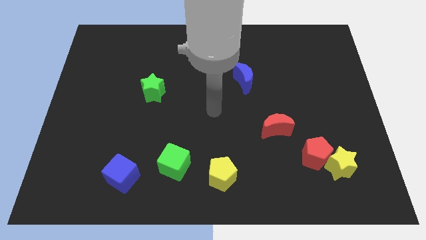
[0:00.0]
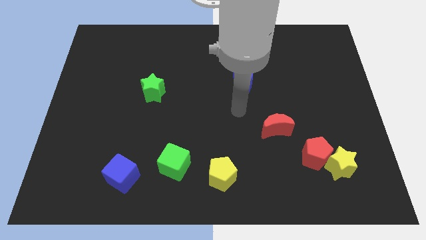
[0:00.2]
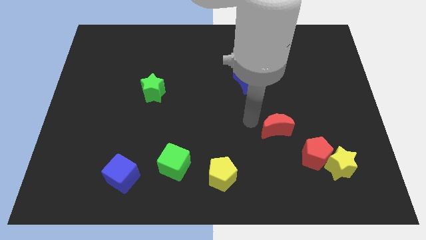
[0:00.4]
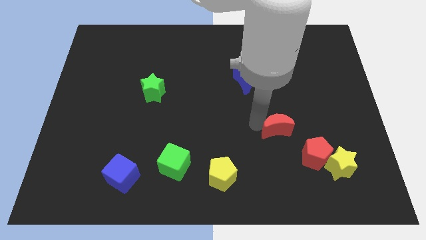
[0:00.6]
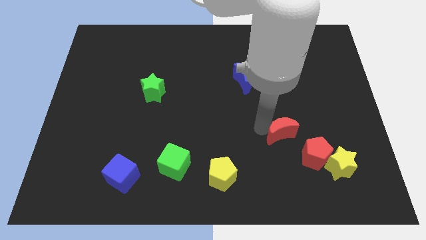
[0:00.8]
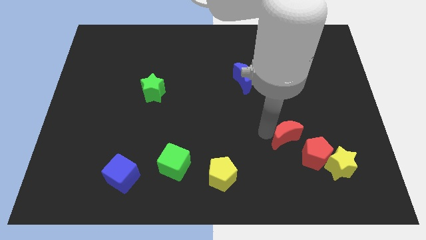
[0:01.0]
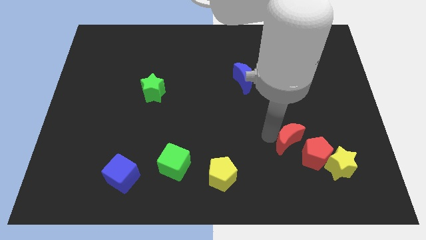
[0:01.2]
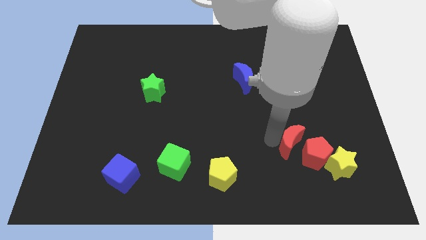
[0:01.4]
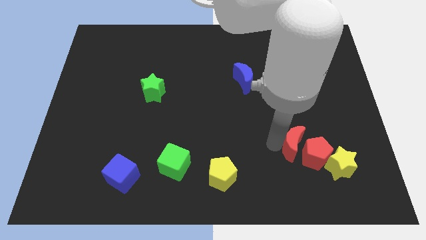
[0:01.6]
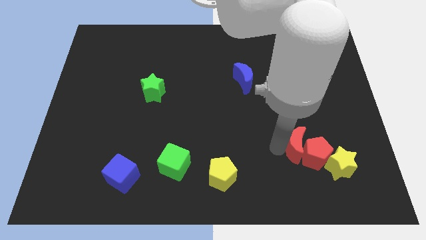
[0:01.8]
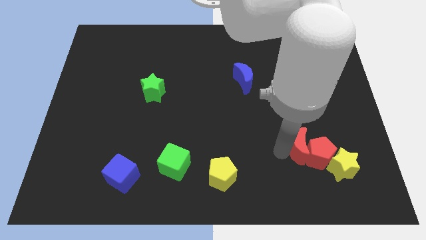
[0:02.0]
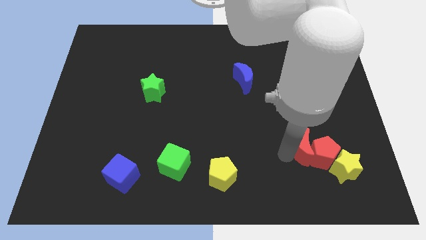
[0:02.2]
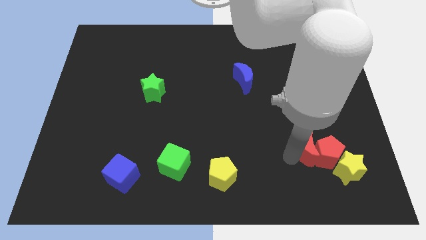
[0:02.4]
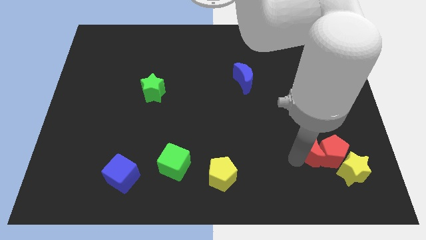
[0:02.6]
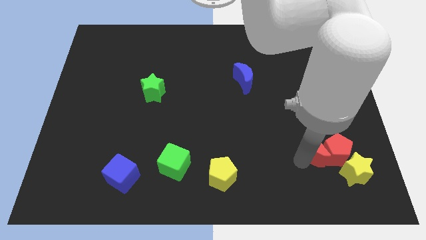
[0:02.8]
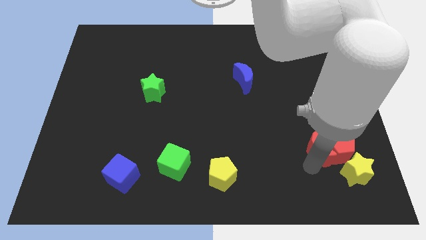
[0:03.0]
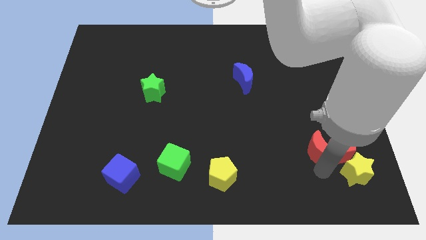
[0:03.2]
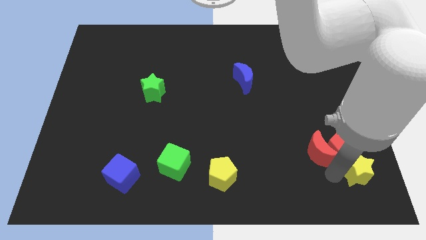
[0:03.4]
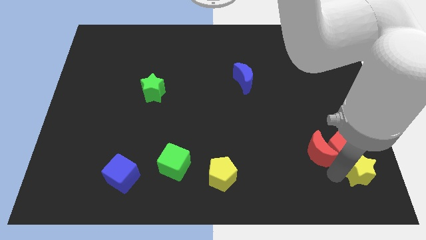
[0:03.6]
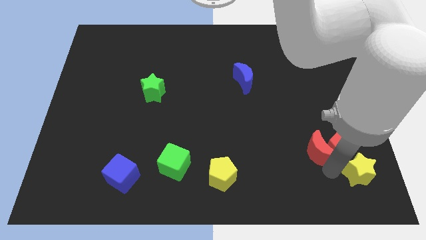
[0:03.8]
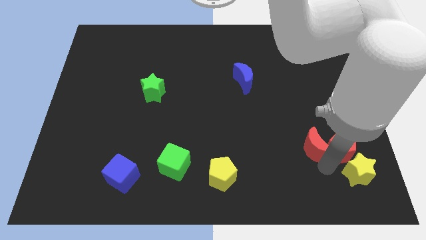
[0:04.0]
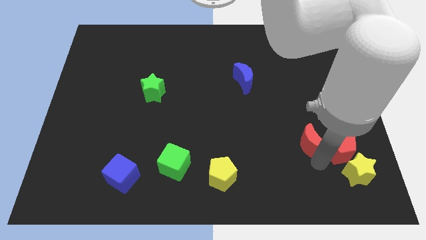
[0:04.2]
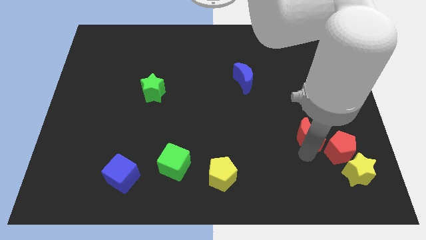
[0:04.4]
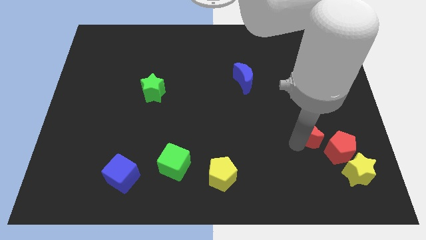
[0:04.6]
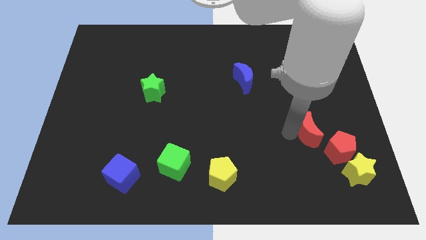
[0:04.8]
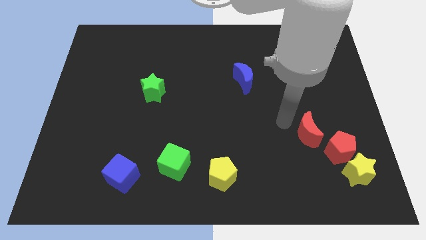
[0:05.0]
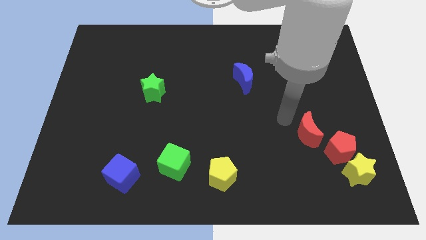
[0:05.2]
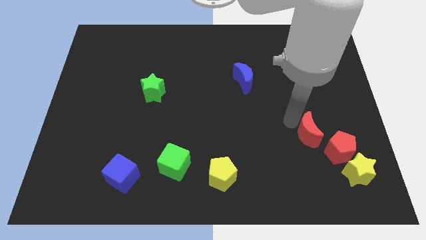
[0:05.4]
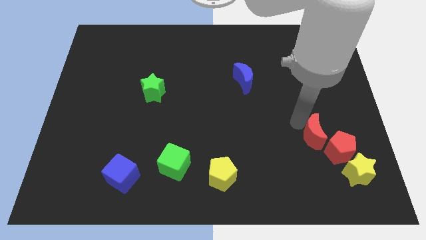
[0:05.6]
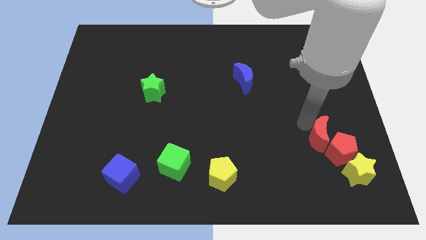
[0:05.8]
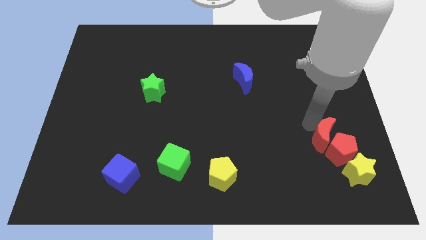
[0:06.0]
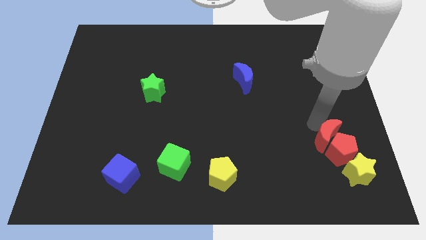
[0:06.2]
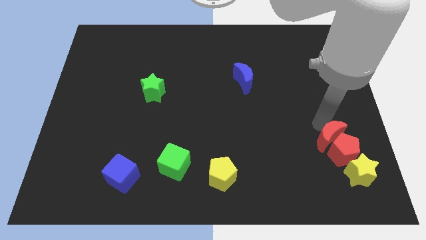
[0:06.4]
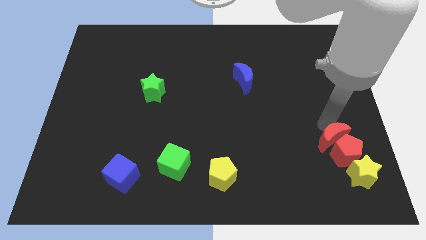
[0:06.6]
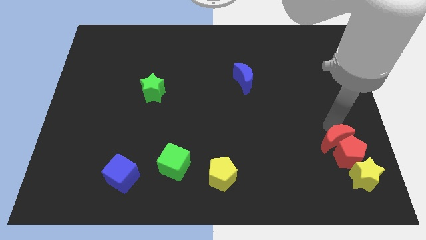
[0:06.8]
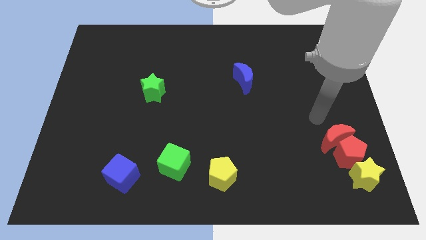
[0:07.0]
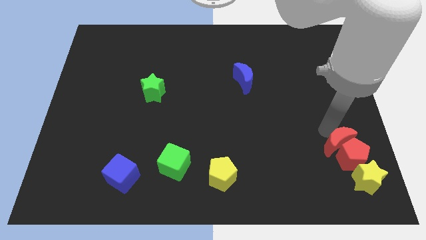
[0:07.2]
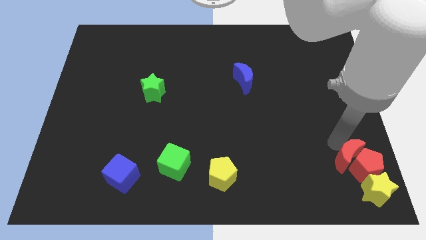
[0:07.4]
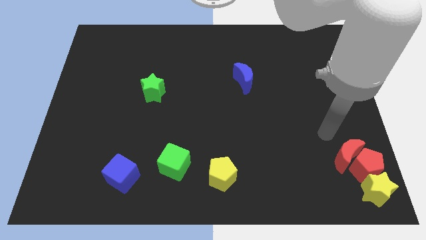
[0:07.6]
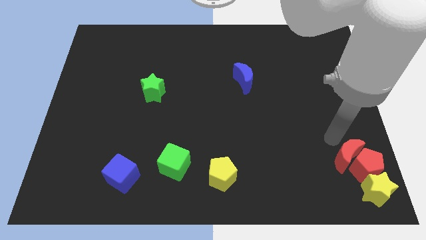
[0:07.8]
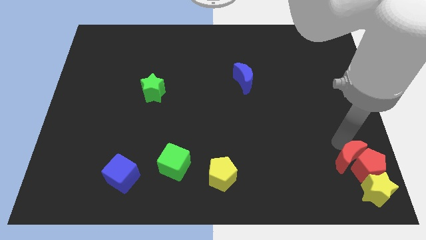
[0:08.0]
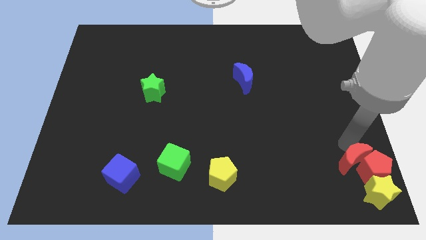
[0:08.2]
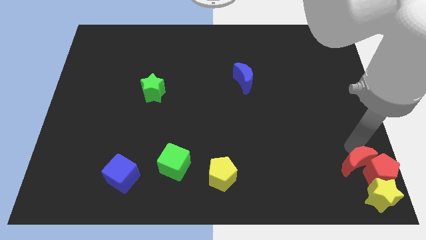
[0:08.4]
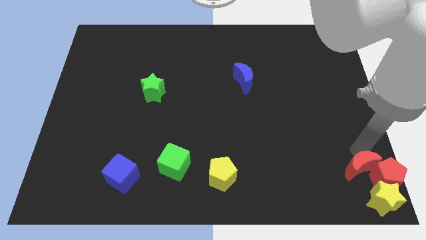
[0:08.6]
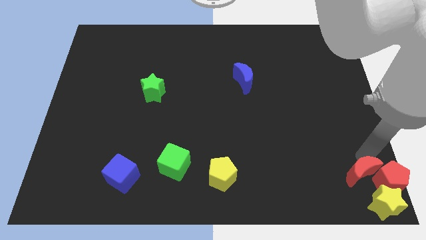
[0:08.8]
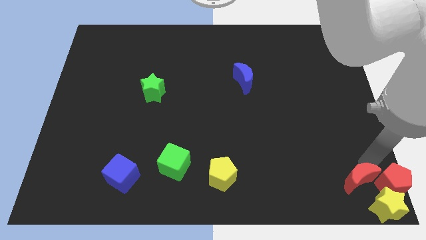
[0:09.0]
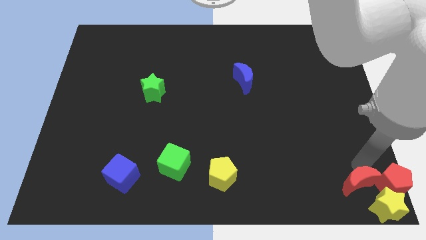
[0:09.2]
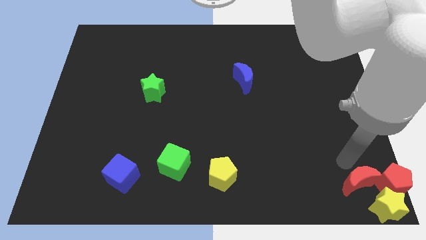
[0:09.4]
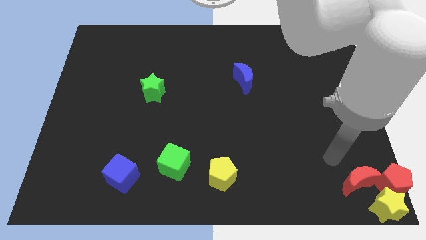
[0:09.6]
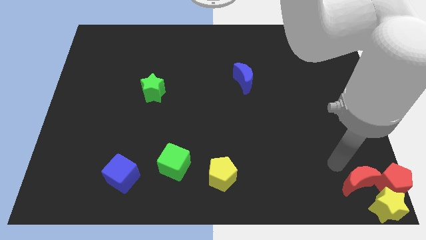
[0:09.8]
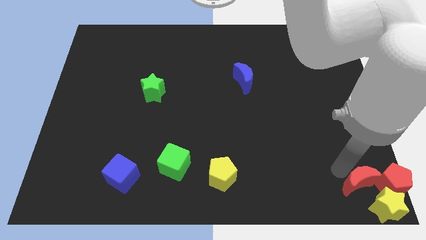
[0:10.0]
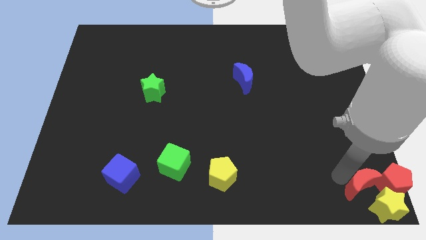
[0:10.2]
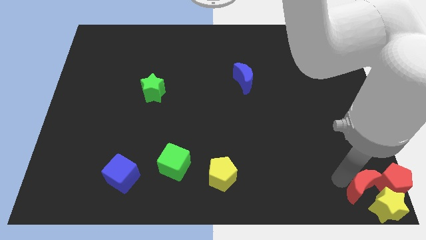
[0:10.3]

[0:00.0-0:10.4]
slide the red moon to the yellow star

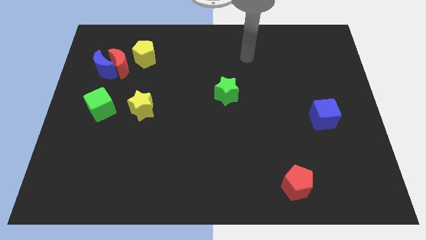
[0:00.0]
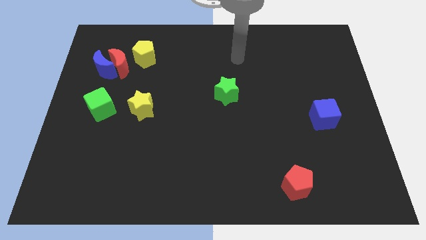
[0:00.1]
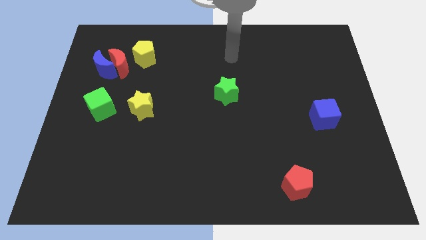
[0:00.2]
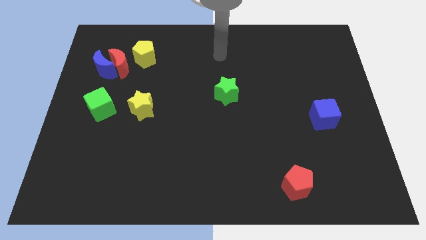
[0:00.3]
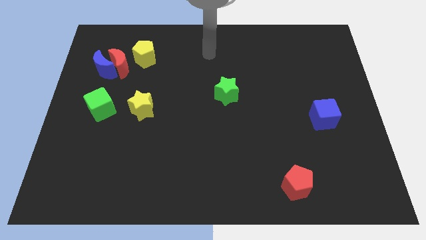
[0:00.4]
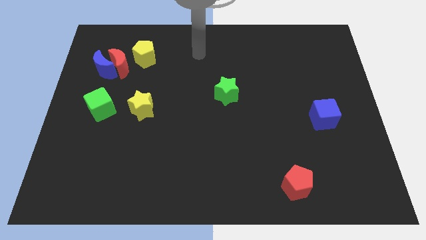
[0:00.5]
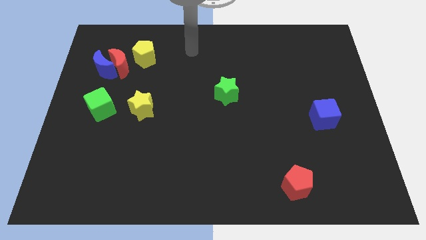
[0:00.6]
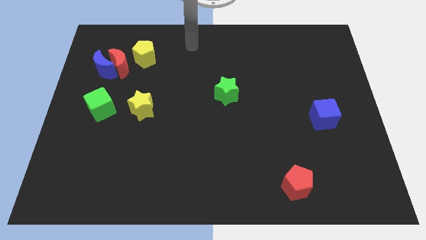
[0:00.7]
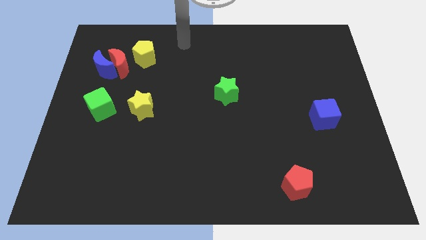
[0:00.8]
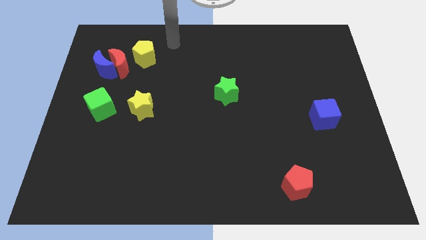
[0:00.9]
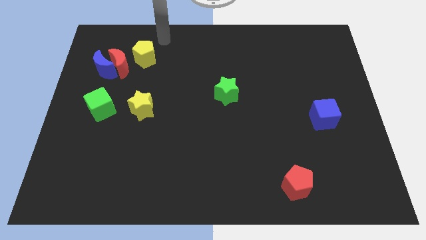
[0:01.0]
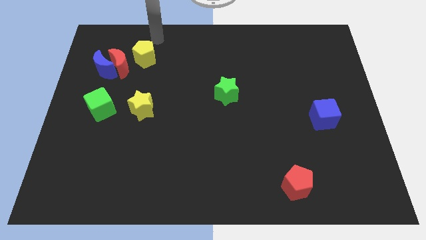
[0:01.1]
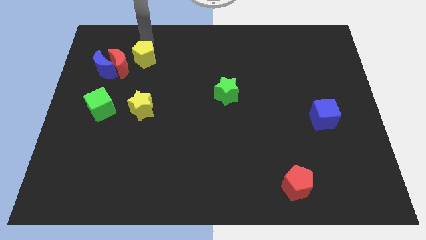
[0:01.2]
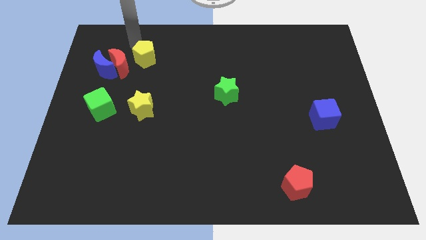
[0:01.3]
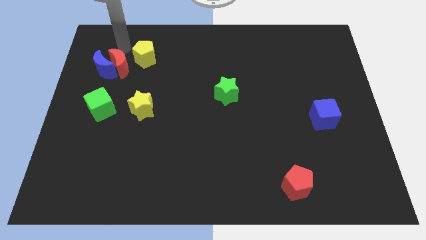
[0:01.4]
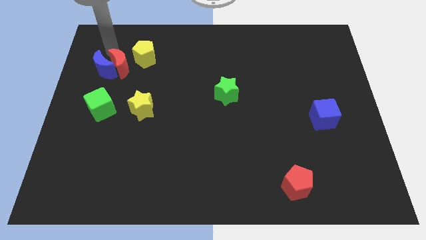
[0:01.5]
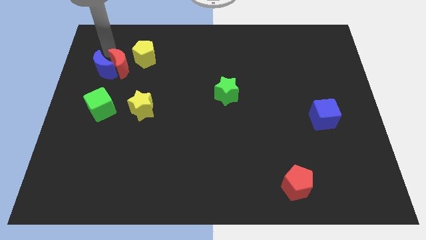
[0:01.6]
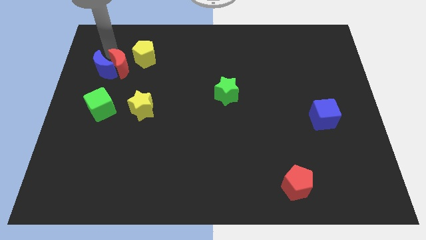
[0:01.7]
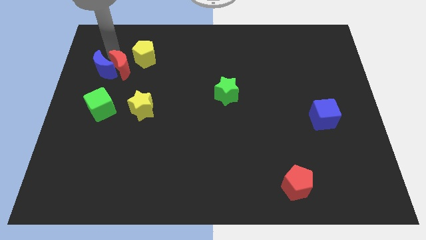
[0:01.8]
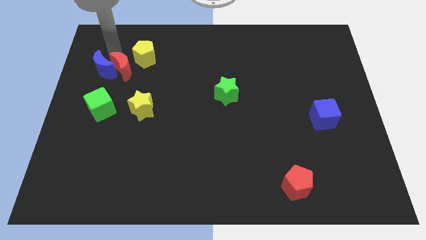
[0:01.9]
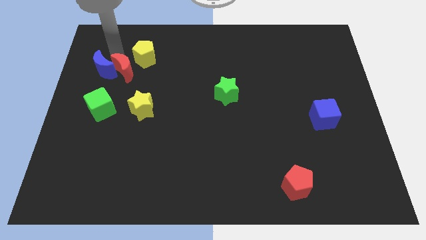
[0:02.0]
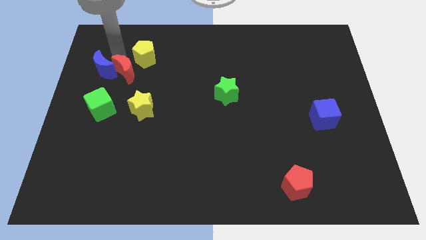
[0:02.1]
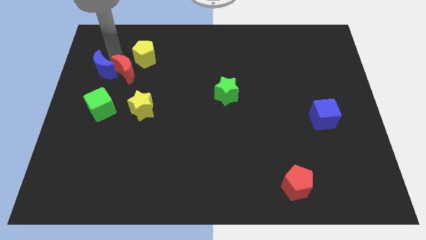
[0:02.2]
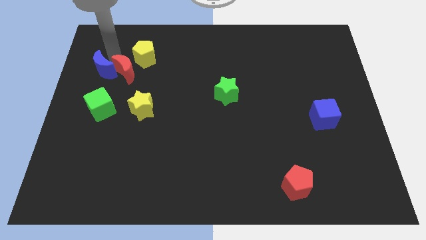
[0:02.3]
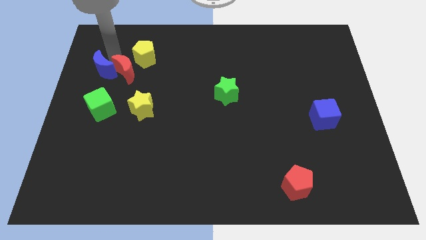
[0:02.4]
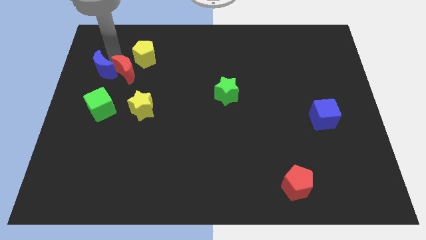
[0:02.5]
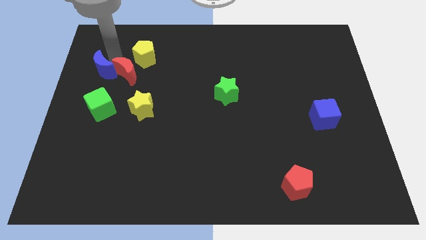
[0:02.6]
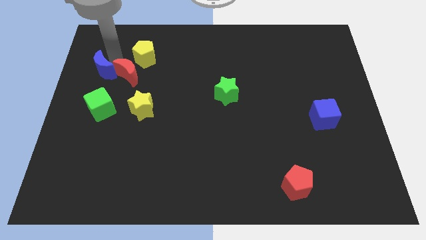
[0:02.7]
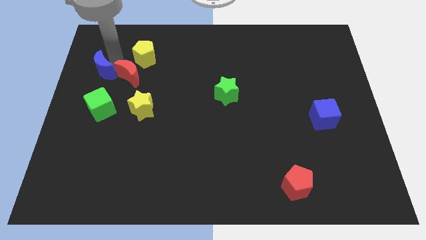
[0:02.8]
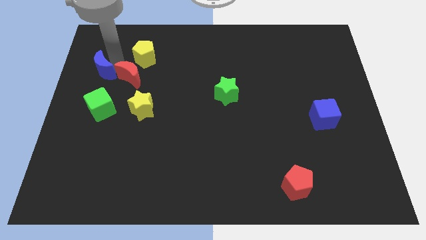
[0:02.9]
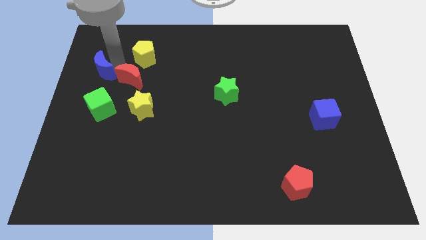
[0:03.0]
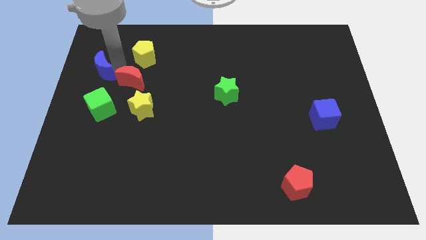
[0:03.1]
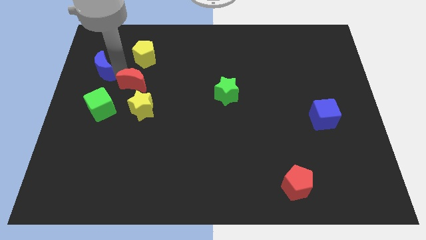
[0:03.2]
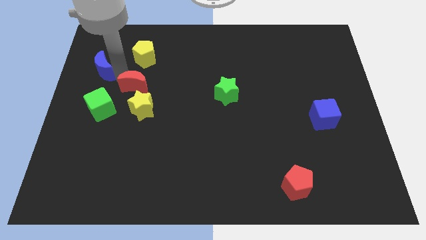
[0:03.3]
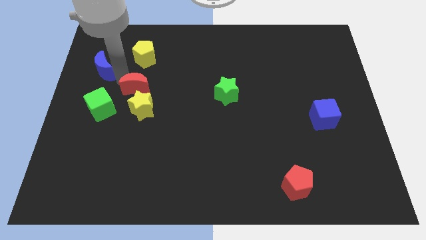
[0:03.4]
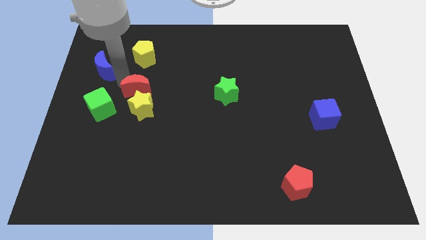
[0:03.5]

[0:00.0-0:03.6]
move the red moon towards the yellow star
